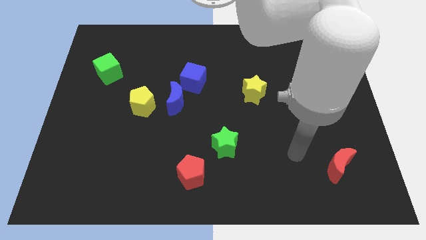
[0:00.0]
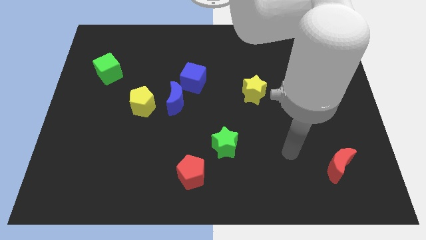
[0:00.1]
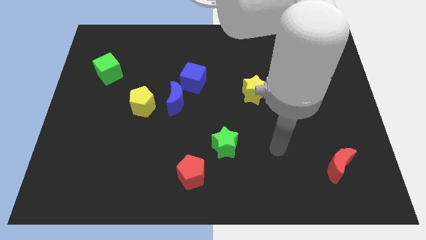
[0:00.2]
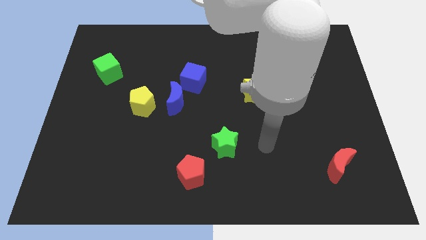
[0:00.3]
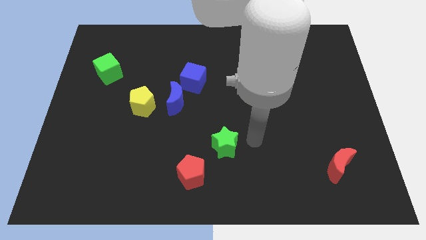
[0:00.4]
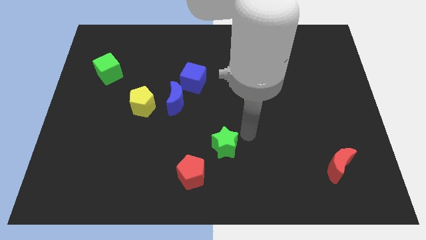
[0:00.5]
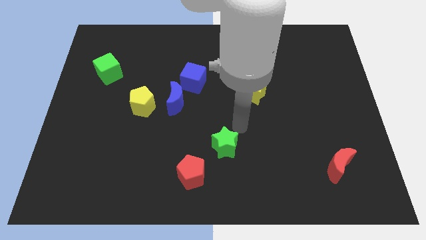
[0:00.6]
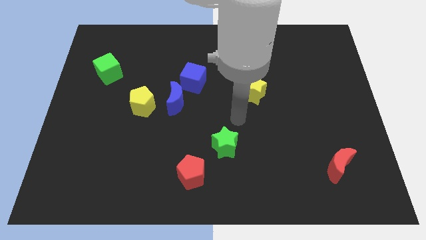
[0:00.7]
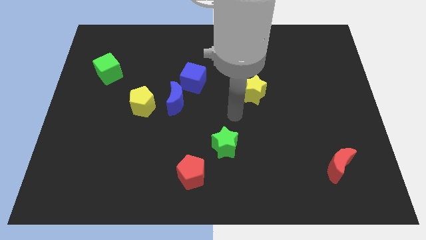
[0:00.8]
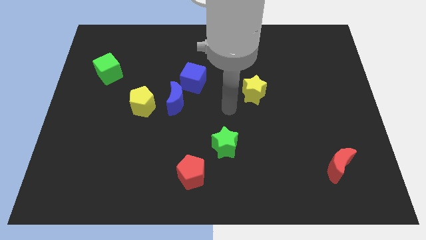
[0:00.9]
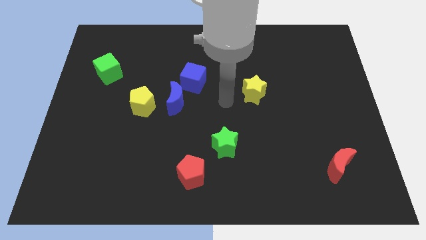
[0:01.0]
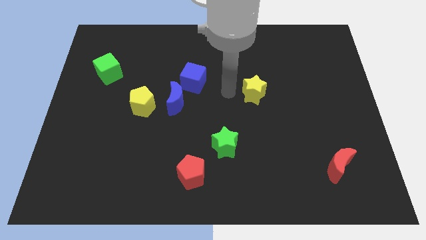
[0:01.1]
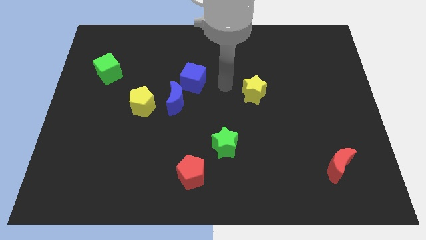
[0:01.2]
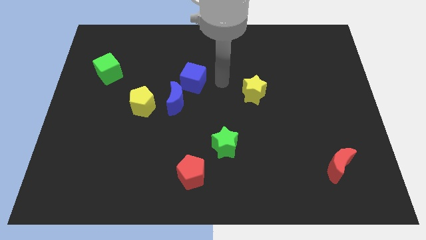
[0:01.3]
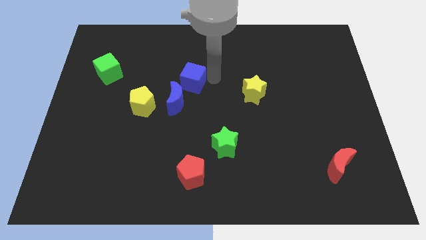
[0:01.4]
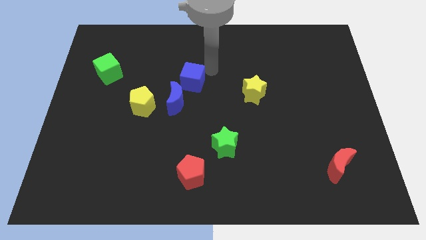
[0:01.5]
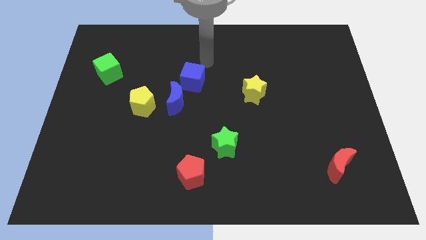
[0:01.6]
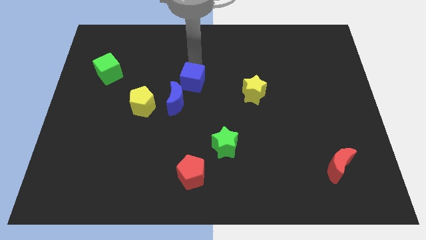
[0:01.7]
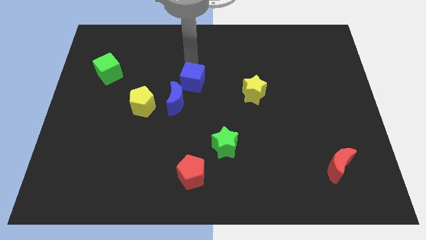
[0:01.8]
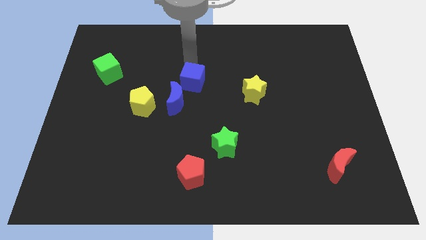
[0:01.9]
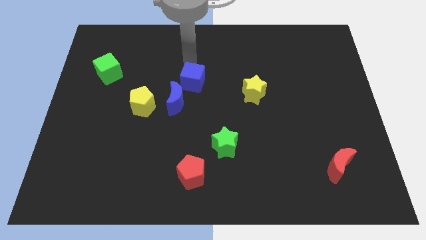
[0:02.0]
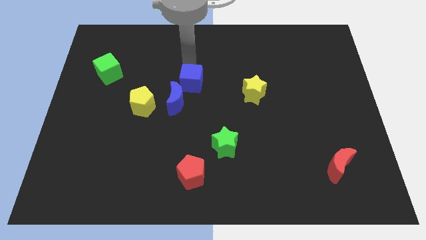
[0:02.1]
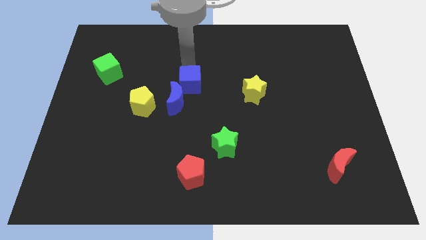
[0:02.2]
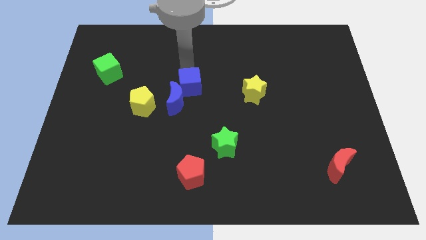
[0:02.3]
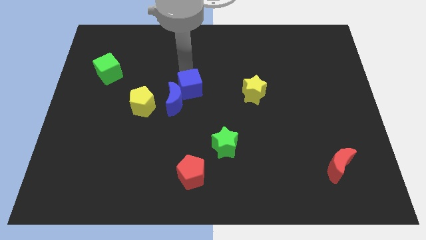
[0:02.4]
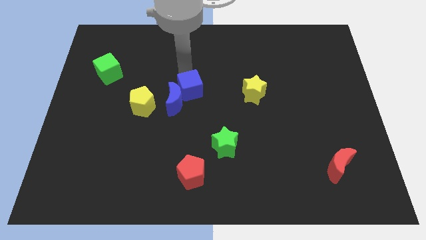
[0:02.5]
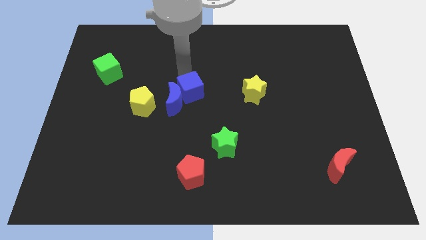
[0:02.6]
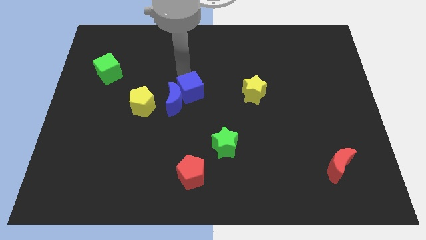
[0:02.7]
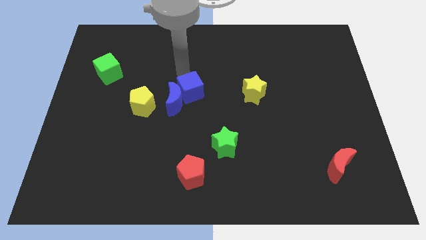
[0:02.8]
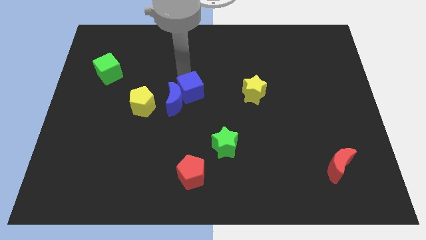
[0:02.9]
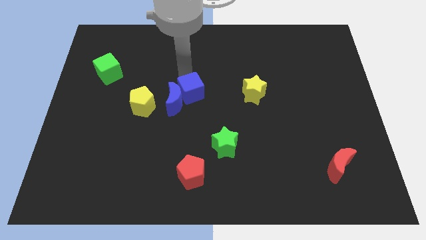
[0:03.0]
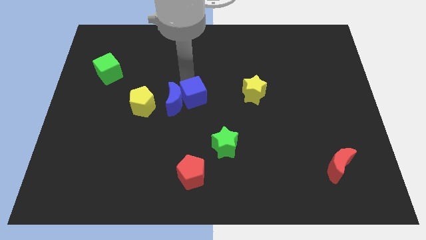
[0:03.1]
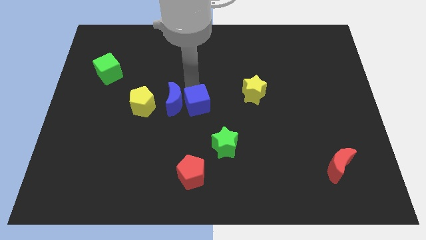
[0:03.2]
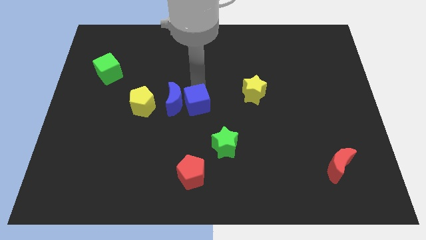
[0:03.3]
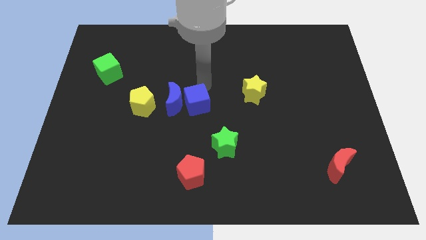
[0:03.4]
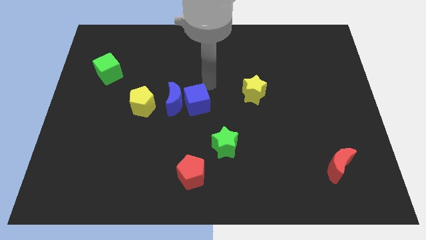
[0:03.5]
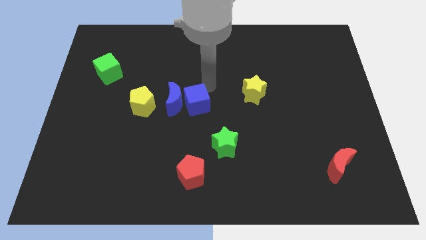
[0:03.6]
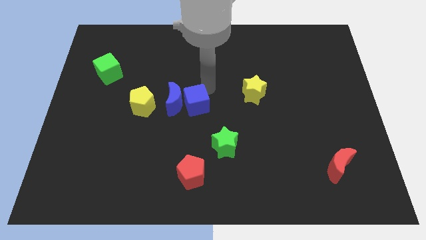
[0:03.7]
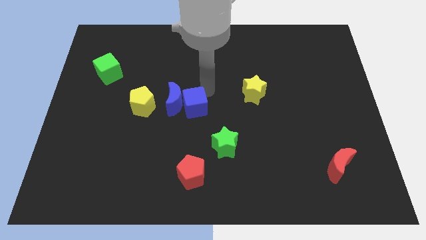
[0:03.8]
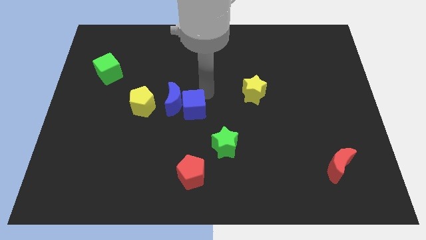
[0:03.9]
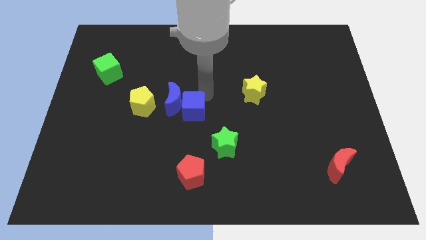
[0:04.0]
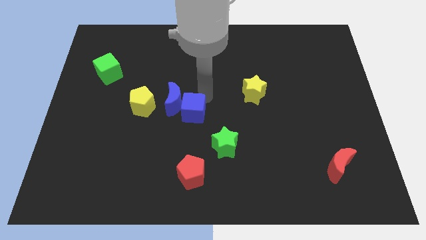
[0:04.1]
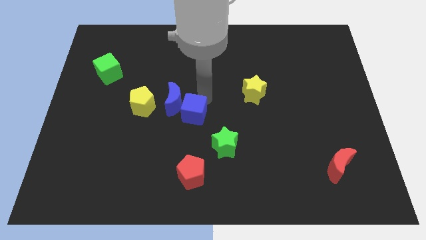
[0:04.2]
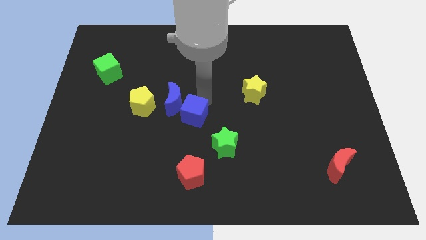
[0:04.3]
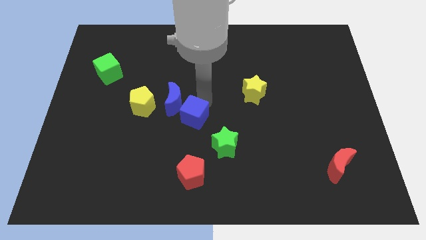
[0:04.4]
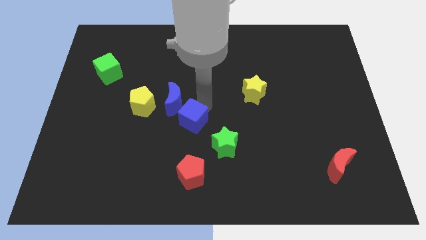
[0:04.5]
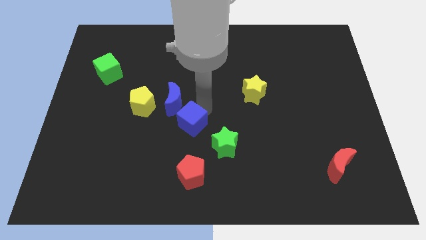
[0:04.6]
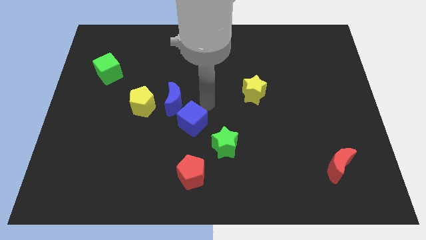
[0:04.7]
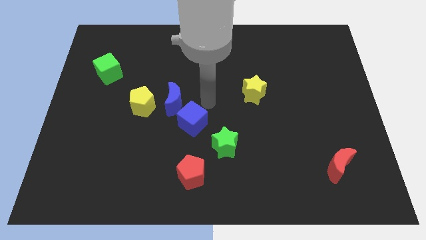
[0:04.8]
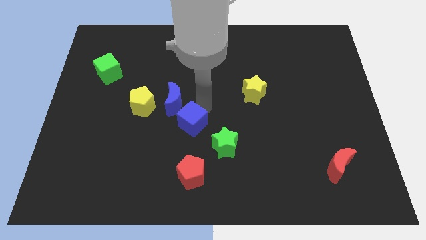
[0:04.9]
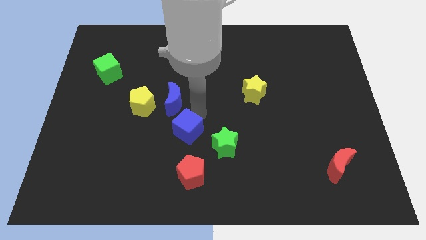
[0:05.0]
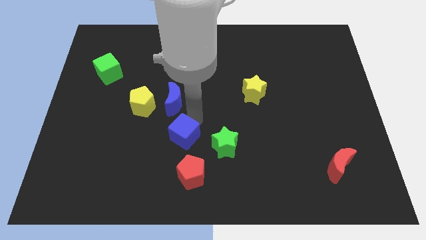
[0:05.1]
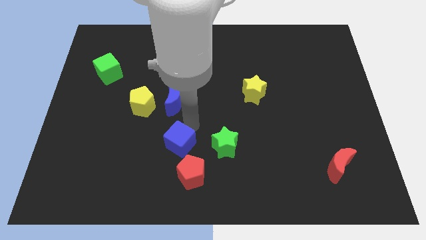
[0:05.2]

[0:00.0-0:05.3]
put the blue cube diagonally up and to the left of the red pentagon

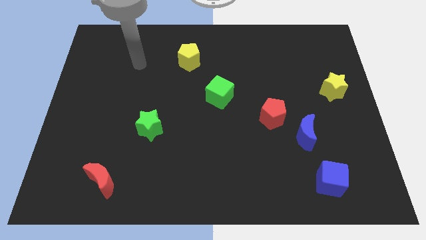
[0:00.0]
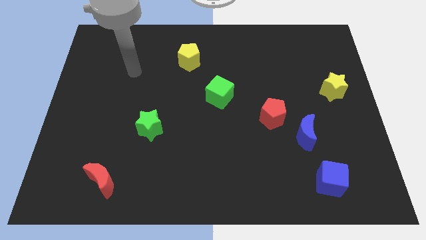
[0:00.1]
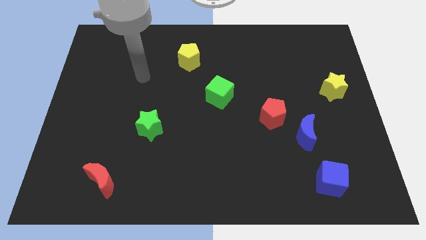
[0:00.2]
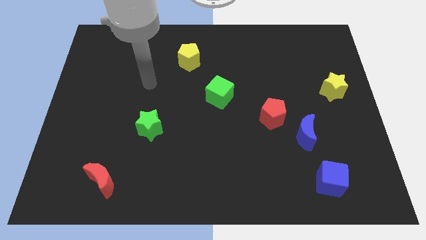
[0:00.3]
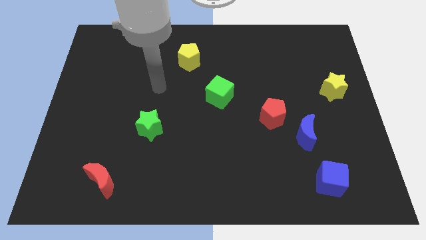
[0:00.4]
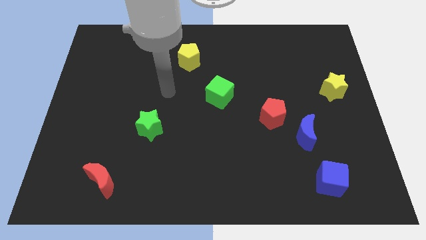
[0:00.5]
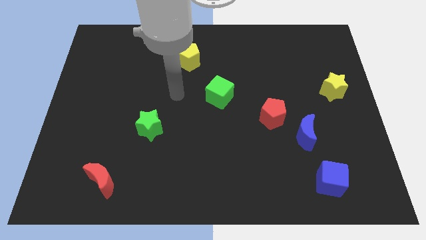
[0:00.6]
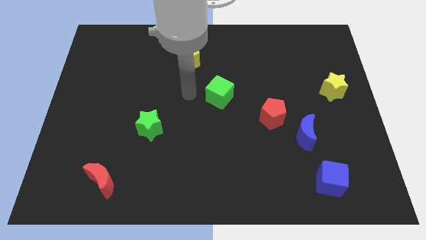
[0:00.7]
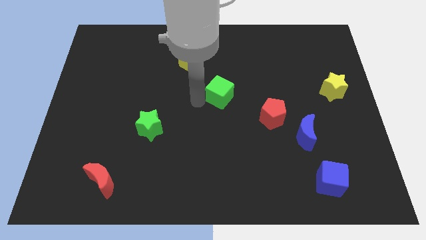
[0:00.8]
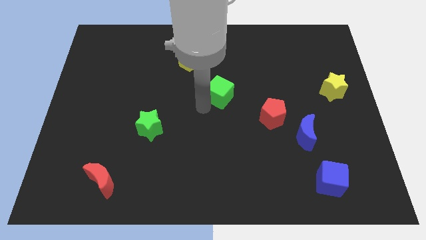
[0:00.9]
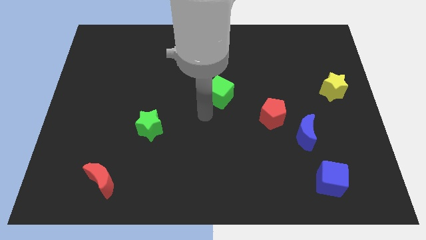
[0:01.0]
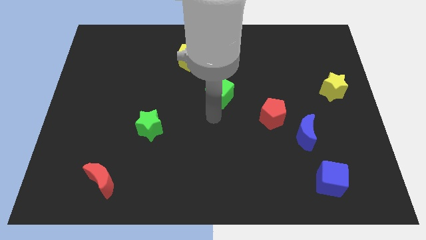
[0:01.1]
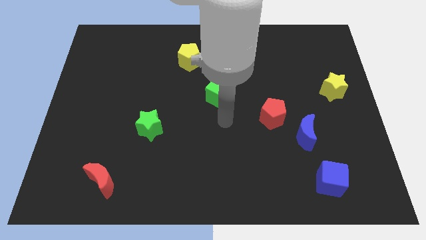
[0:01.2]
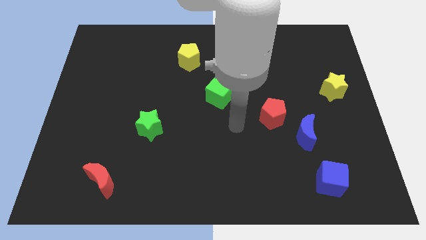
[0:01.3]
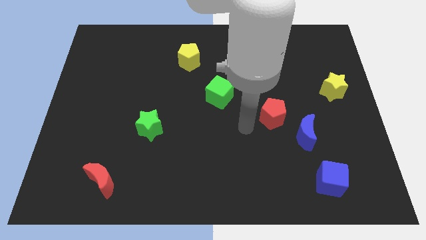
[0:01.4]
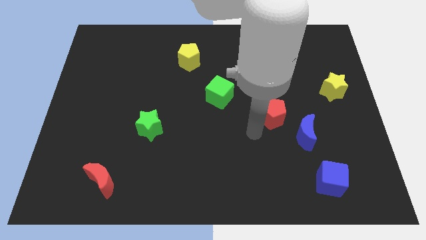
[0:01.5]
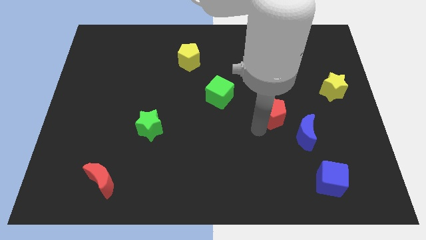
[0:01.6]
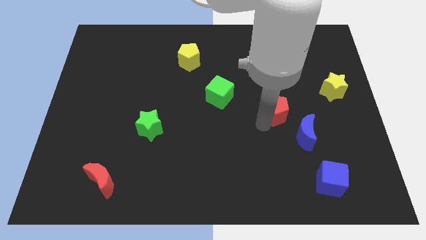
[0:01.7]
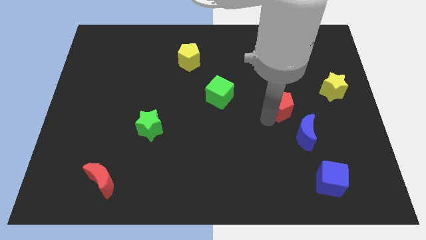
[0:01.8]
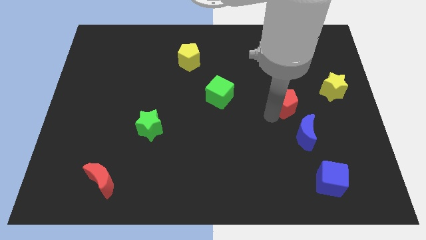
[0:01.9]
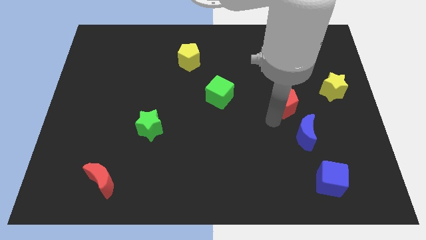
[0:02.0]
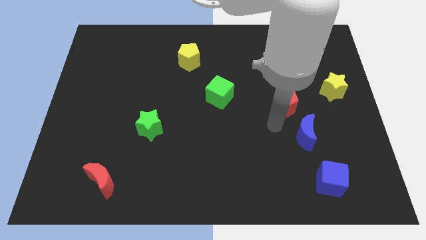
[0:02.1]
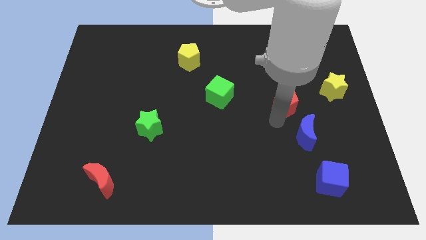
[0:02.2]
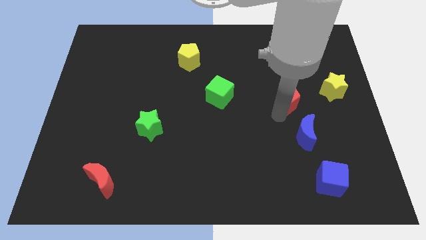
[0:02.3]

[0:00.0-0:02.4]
push the red pentagon to the left of the yellow star
